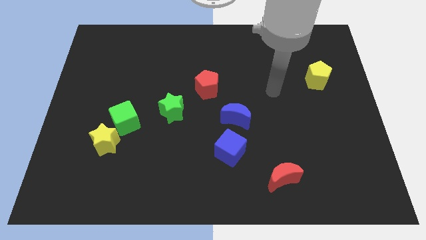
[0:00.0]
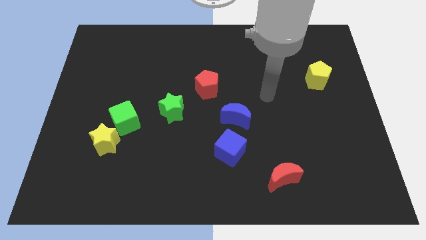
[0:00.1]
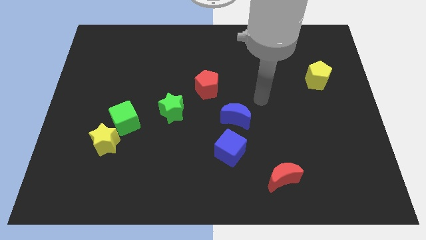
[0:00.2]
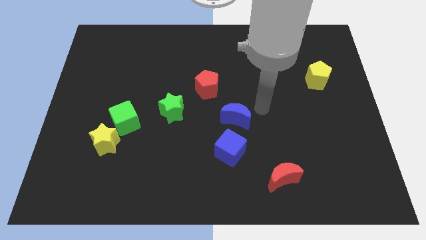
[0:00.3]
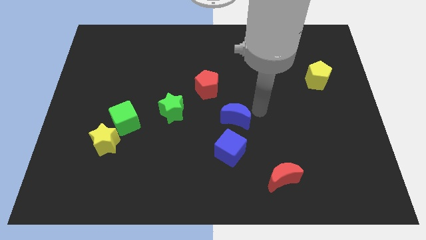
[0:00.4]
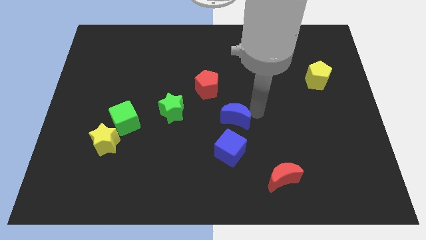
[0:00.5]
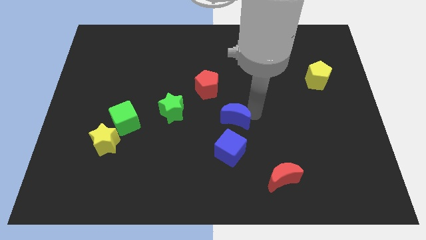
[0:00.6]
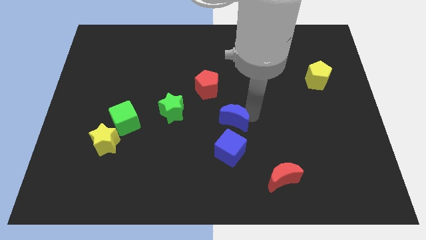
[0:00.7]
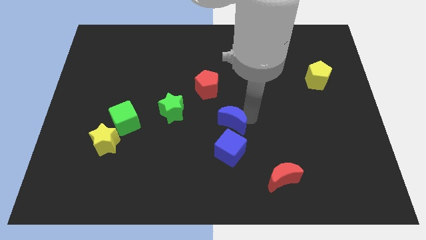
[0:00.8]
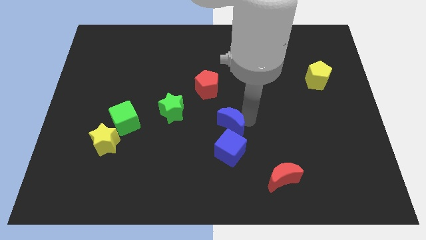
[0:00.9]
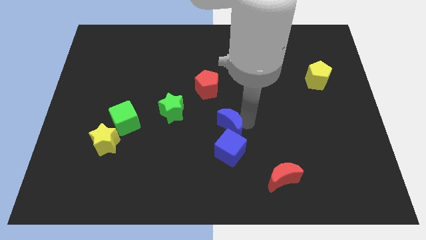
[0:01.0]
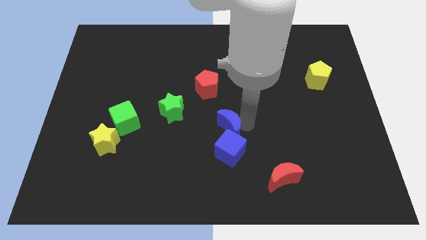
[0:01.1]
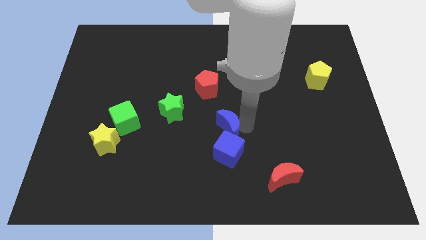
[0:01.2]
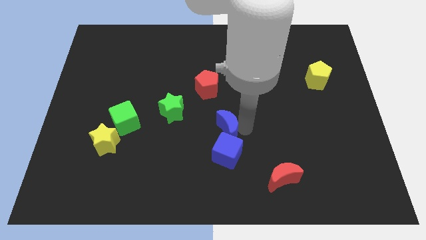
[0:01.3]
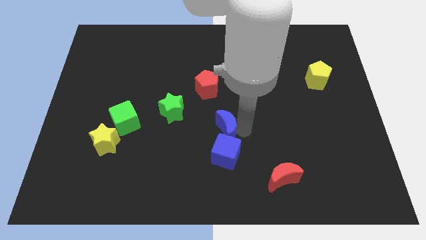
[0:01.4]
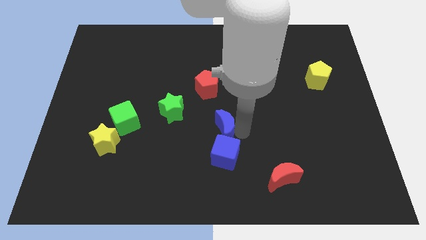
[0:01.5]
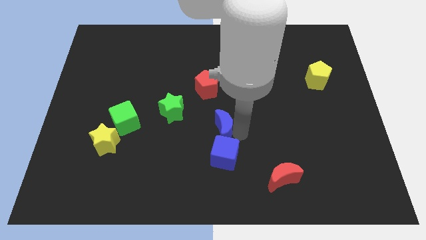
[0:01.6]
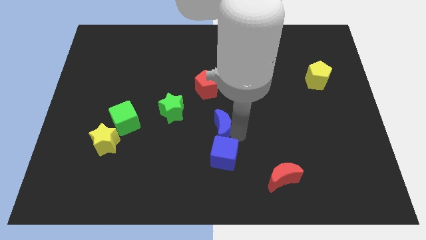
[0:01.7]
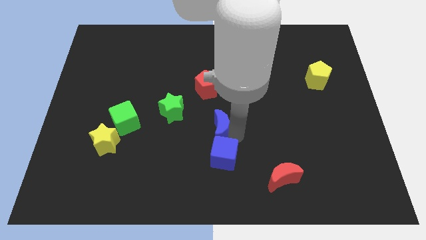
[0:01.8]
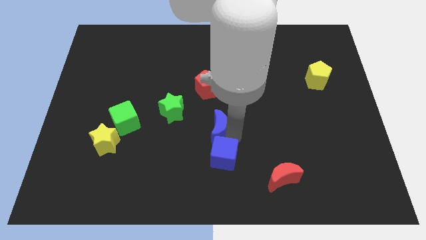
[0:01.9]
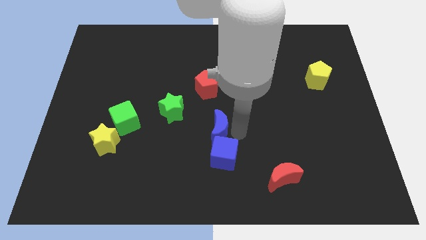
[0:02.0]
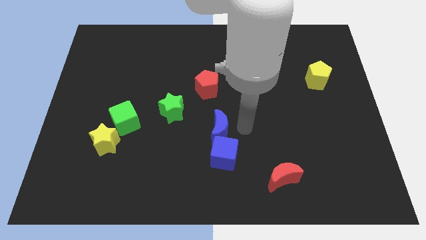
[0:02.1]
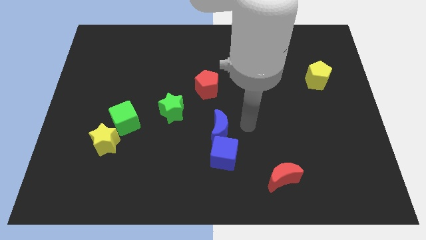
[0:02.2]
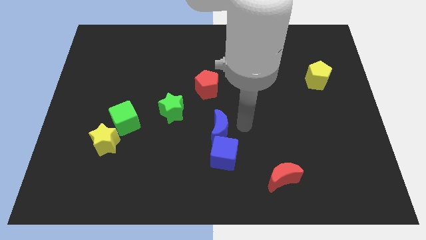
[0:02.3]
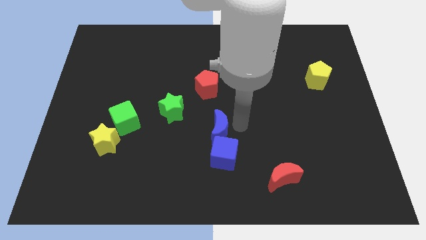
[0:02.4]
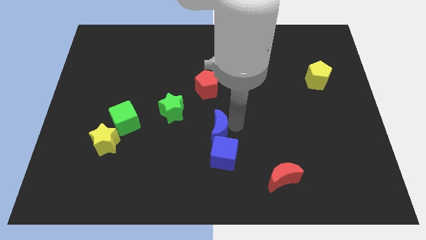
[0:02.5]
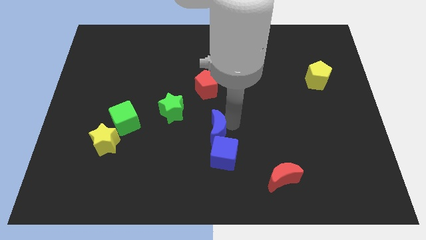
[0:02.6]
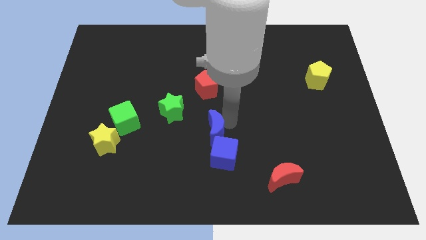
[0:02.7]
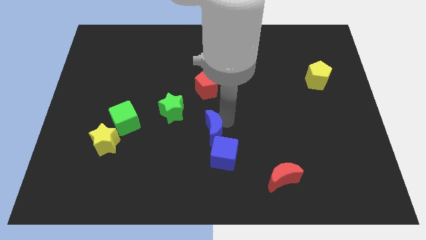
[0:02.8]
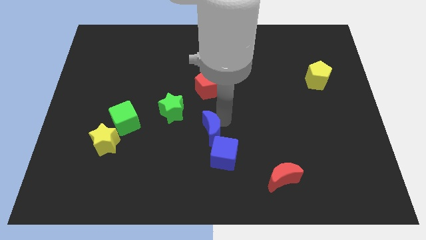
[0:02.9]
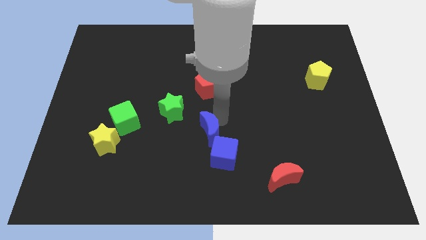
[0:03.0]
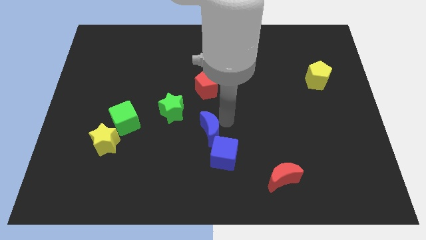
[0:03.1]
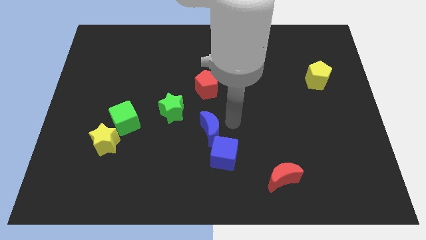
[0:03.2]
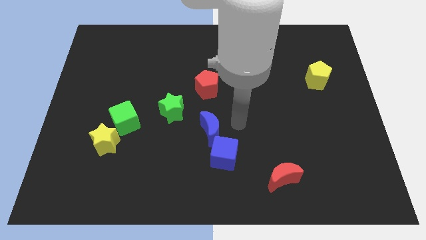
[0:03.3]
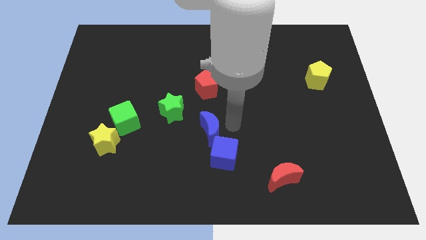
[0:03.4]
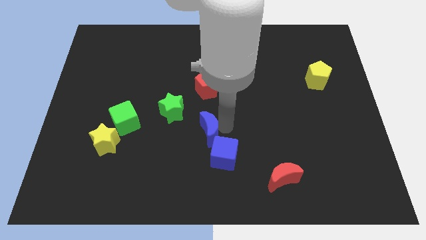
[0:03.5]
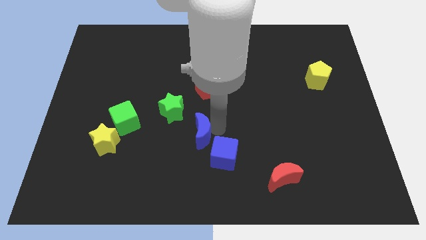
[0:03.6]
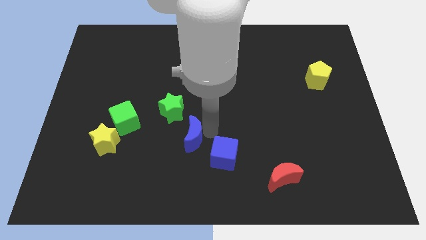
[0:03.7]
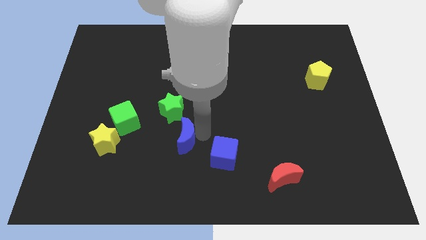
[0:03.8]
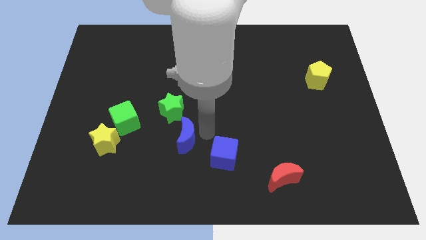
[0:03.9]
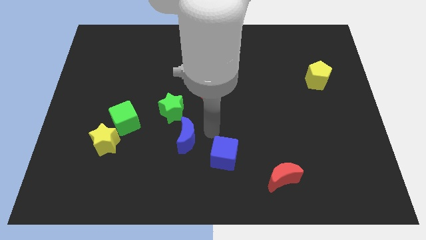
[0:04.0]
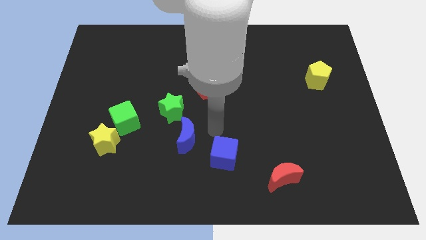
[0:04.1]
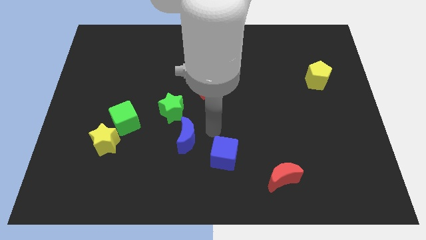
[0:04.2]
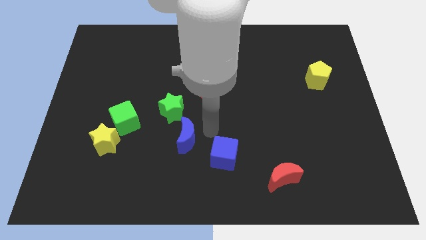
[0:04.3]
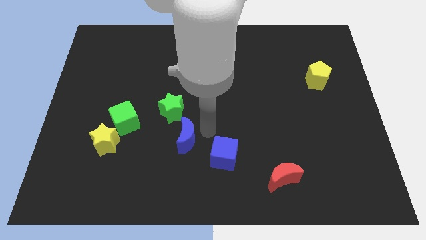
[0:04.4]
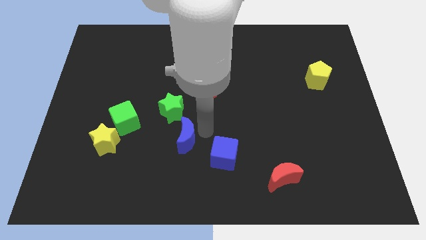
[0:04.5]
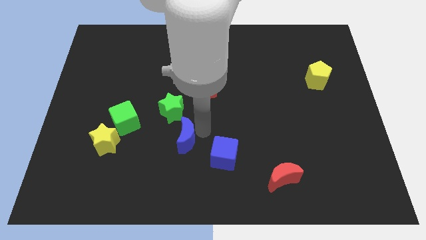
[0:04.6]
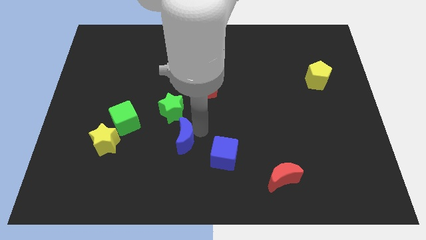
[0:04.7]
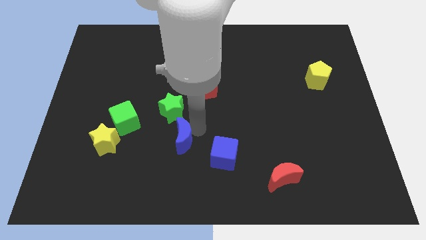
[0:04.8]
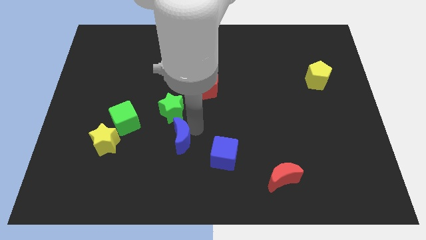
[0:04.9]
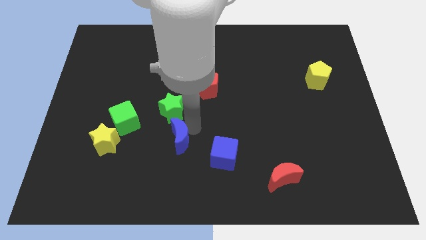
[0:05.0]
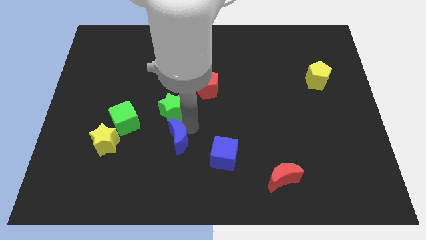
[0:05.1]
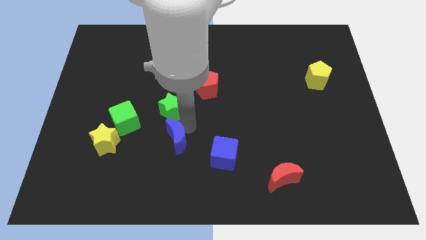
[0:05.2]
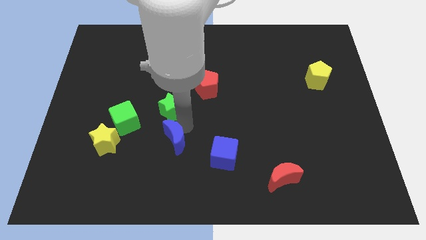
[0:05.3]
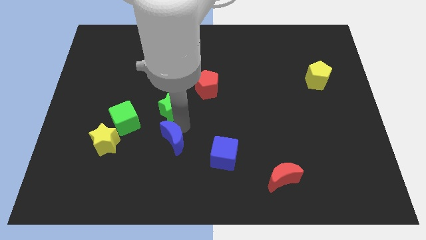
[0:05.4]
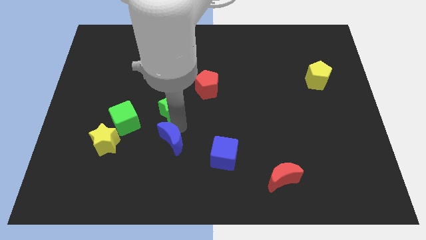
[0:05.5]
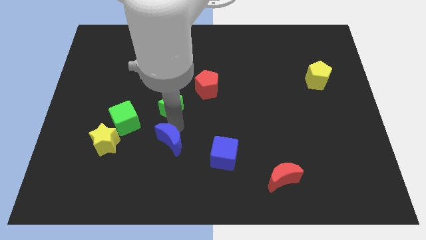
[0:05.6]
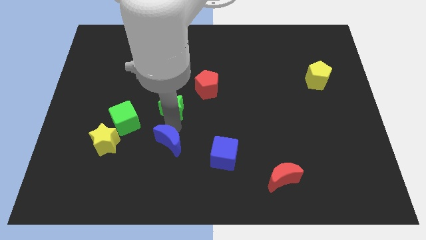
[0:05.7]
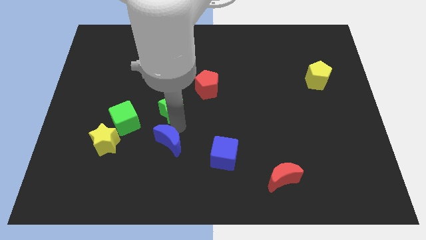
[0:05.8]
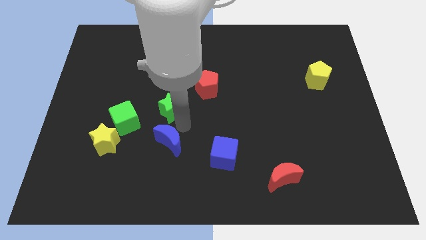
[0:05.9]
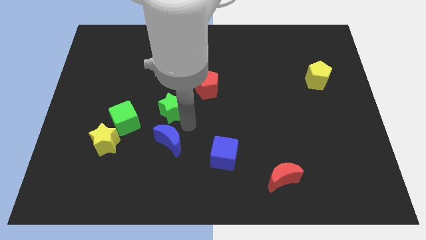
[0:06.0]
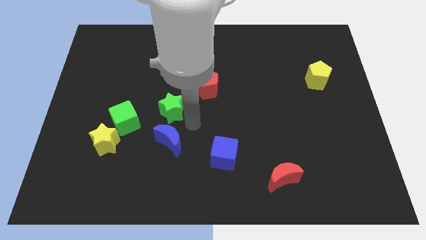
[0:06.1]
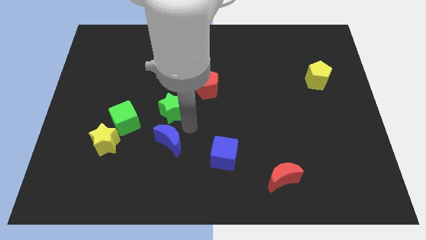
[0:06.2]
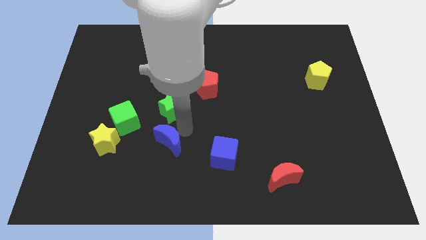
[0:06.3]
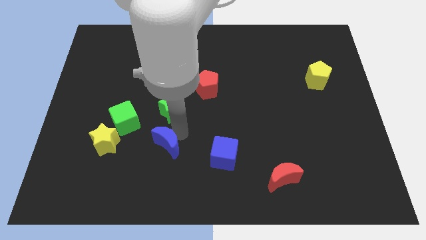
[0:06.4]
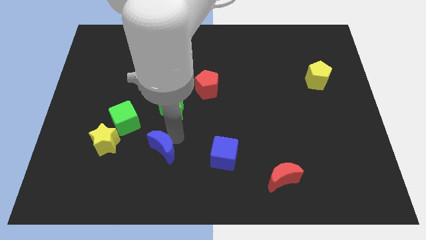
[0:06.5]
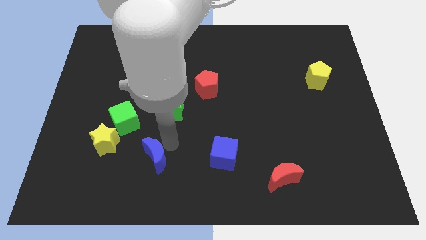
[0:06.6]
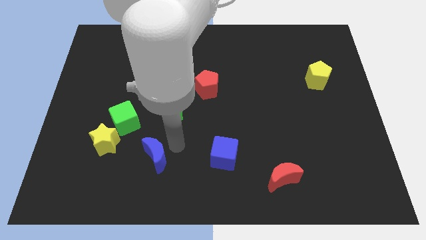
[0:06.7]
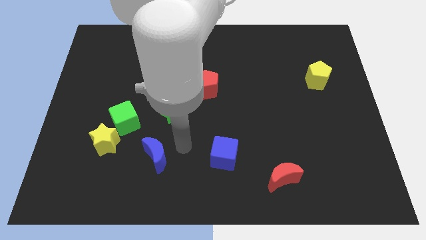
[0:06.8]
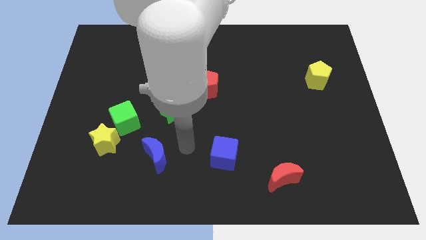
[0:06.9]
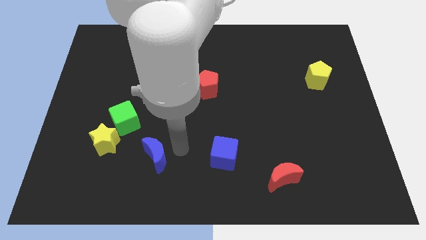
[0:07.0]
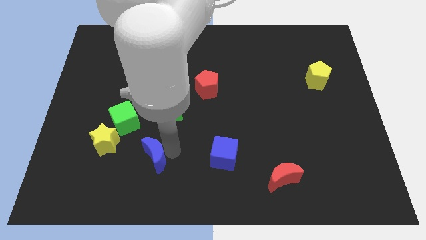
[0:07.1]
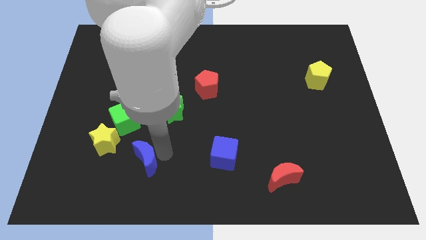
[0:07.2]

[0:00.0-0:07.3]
move the blue moon to the bottom right side of the yellow star
